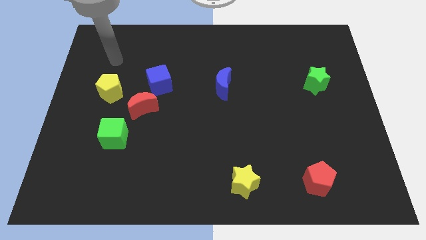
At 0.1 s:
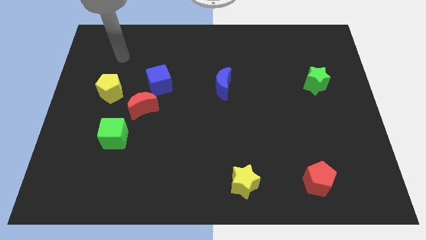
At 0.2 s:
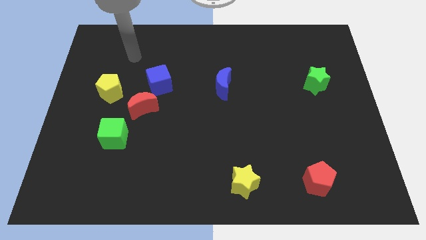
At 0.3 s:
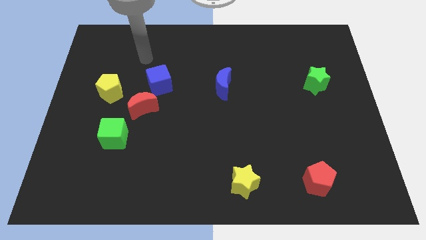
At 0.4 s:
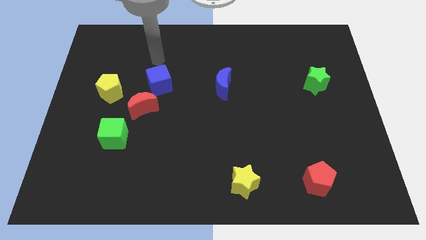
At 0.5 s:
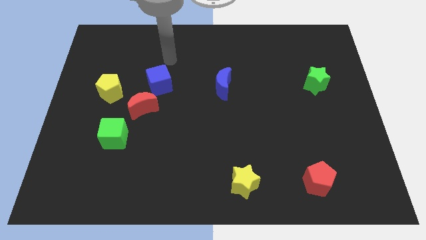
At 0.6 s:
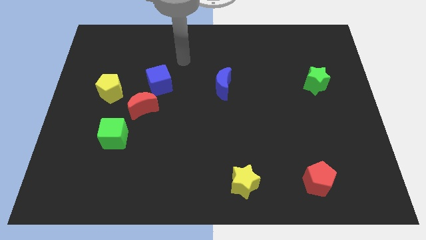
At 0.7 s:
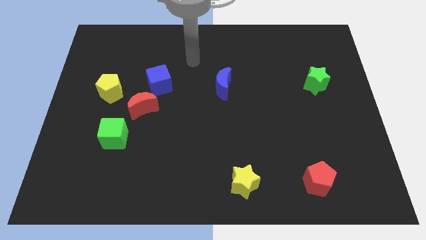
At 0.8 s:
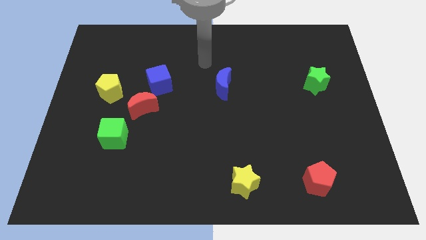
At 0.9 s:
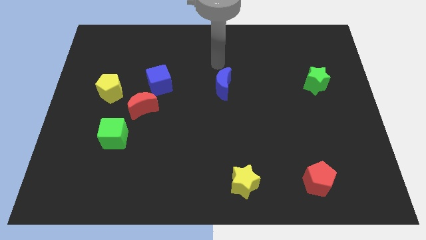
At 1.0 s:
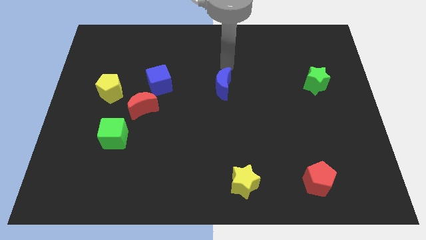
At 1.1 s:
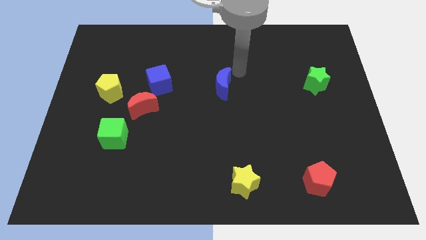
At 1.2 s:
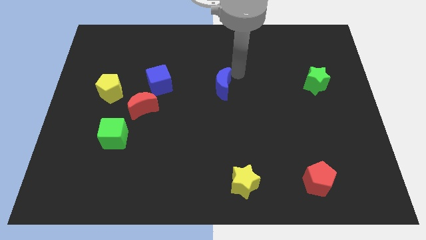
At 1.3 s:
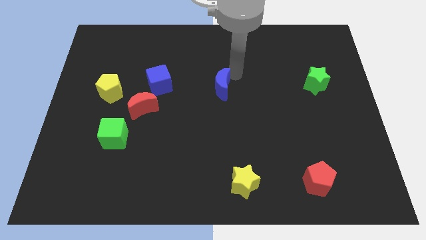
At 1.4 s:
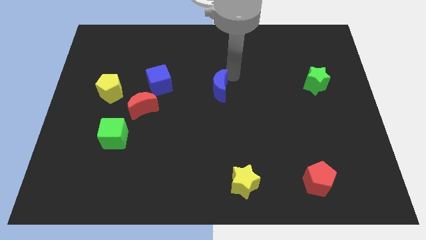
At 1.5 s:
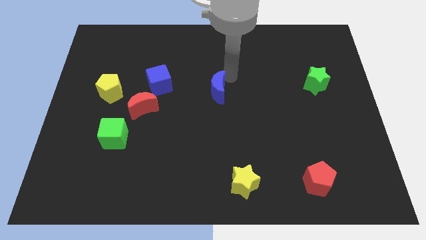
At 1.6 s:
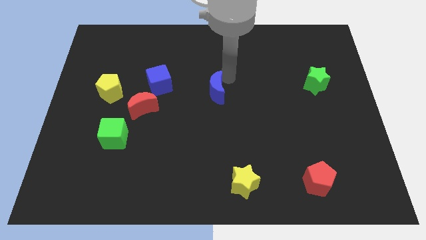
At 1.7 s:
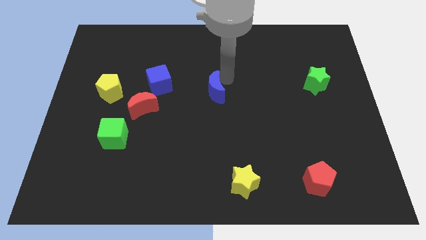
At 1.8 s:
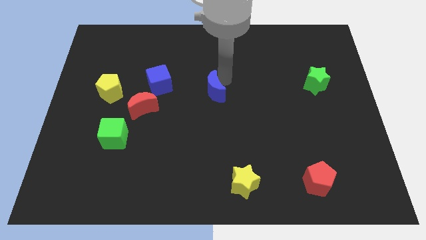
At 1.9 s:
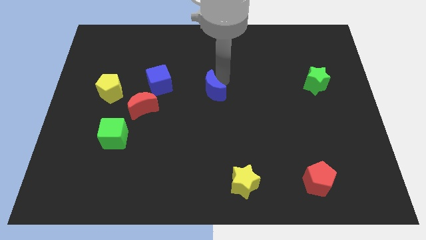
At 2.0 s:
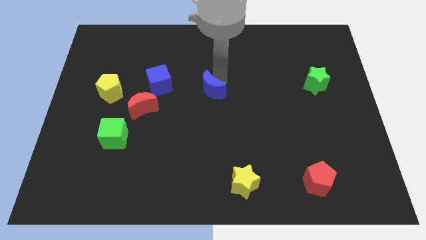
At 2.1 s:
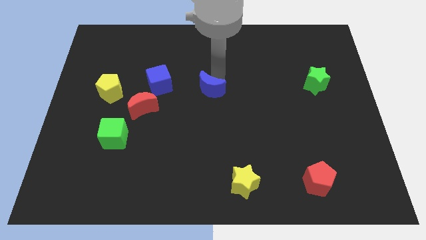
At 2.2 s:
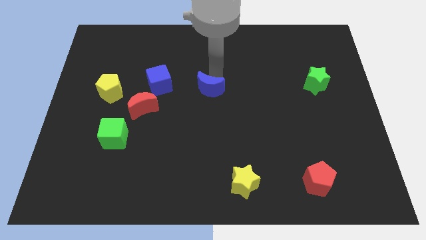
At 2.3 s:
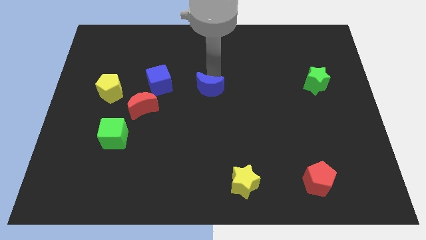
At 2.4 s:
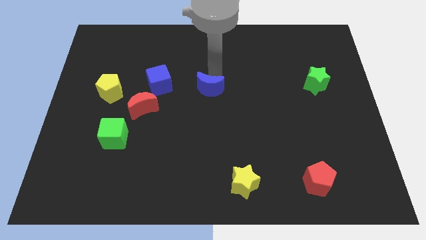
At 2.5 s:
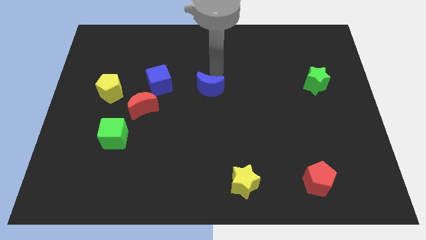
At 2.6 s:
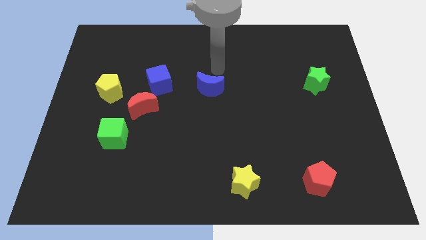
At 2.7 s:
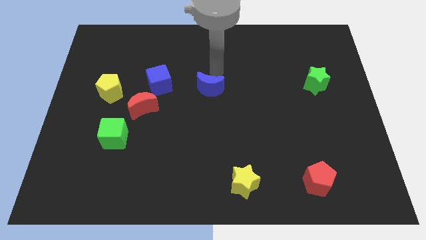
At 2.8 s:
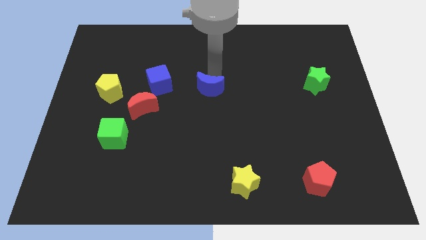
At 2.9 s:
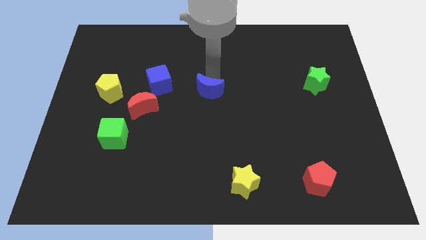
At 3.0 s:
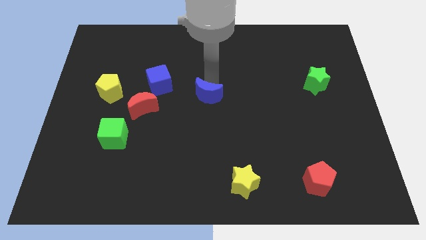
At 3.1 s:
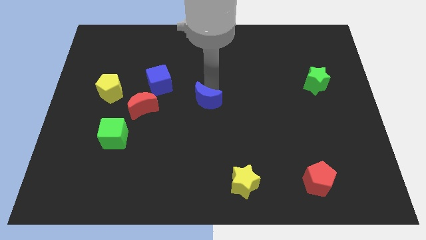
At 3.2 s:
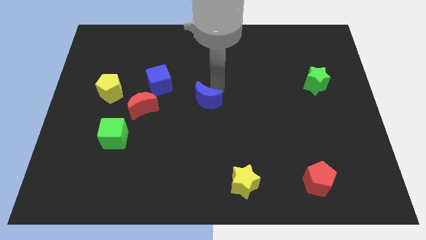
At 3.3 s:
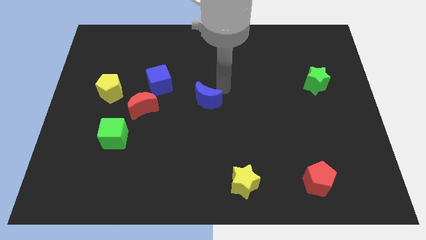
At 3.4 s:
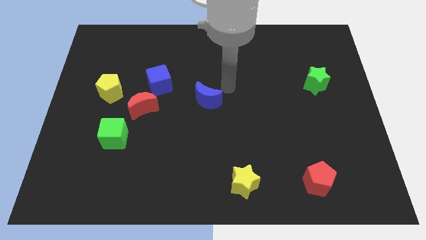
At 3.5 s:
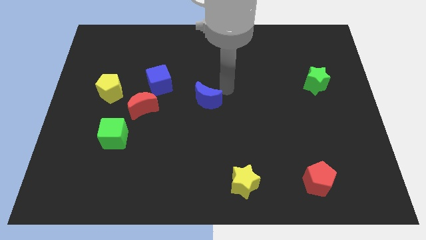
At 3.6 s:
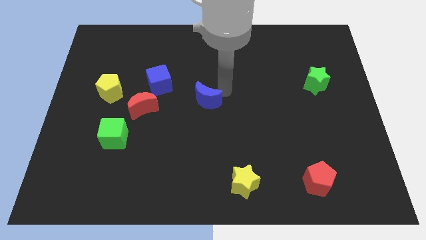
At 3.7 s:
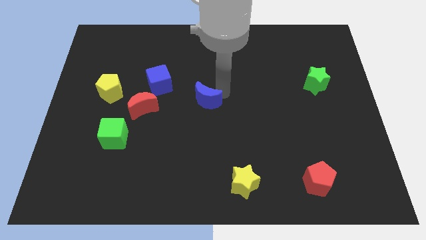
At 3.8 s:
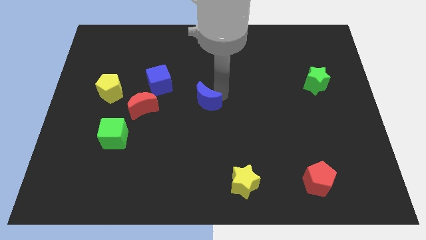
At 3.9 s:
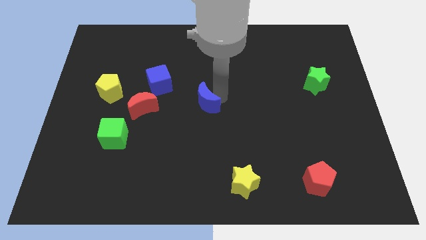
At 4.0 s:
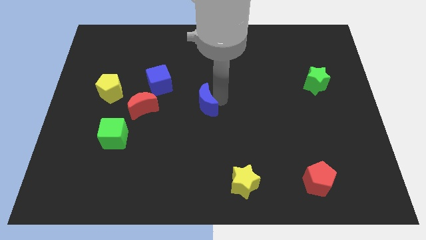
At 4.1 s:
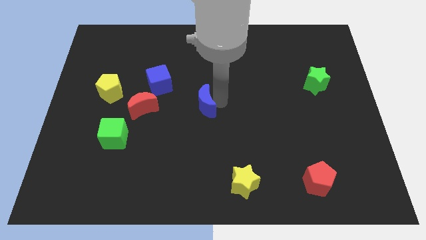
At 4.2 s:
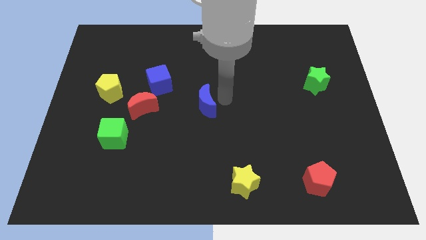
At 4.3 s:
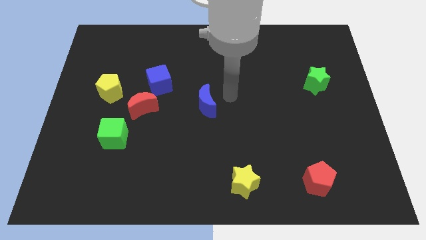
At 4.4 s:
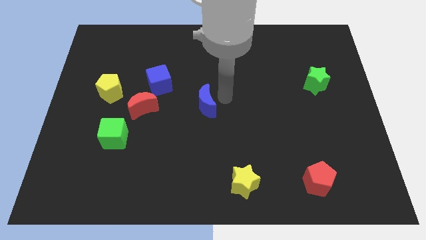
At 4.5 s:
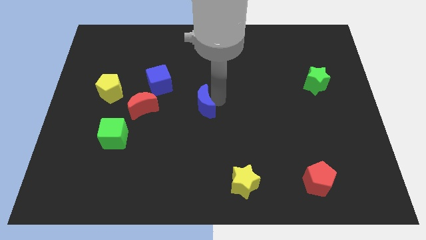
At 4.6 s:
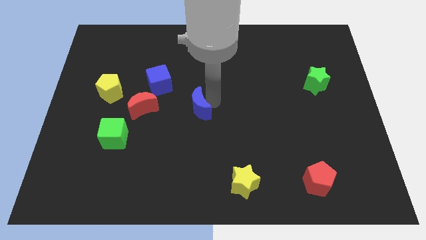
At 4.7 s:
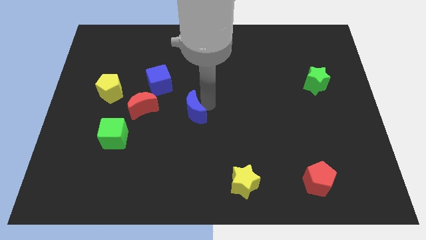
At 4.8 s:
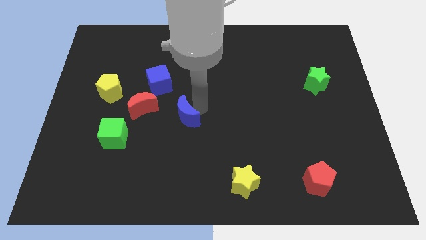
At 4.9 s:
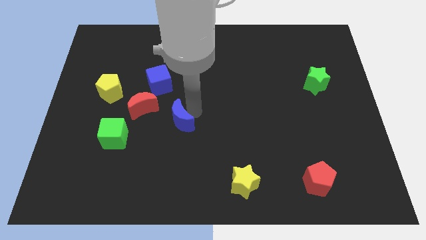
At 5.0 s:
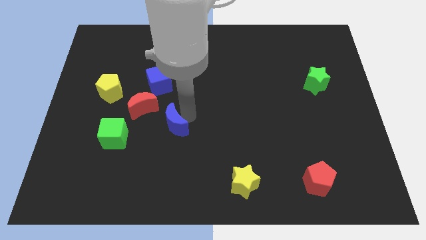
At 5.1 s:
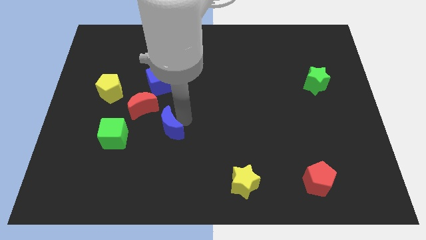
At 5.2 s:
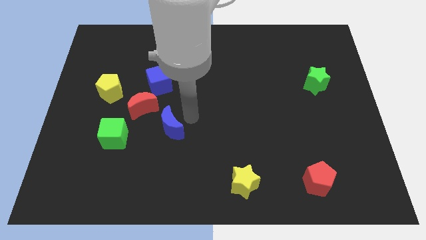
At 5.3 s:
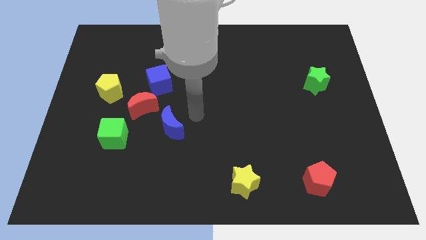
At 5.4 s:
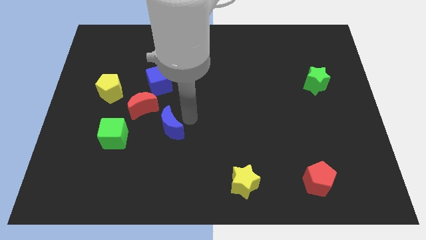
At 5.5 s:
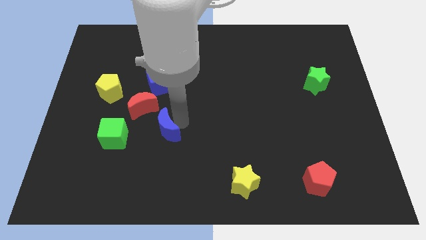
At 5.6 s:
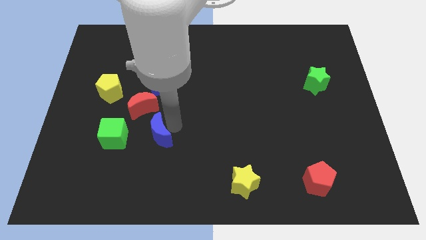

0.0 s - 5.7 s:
slide the blue moon diagonally down and to the left

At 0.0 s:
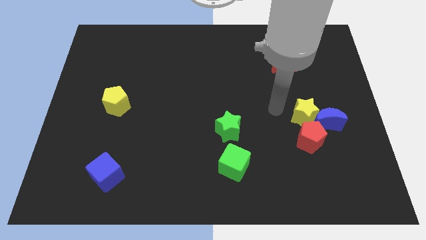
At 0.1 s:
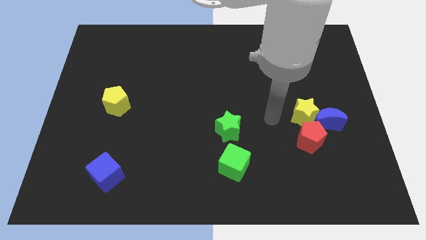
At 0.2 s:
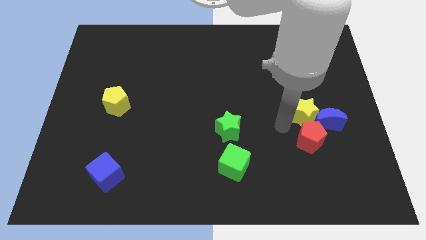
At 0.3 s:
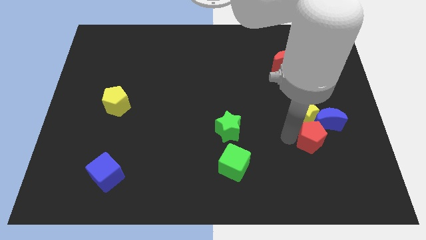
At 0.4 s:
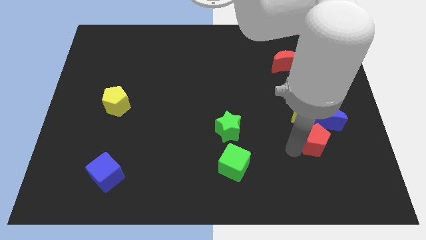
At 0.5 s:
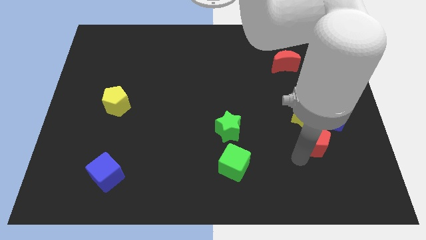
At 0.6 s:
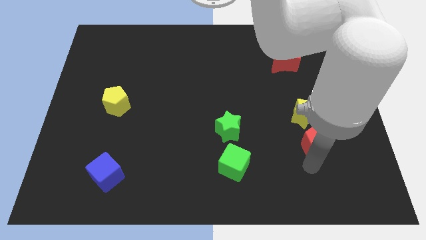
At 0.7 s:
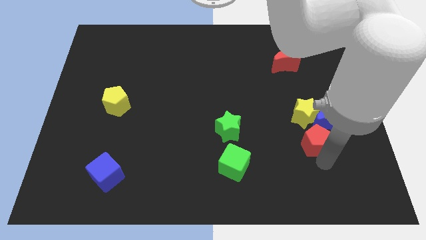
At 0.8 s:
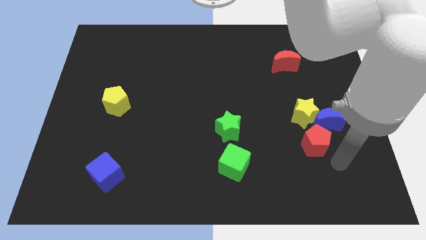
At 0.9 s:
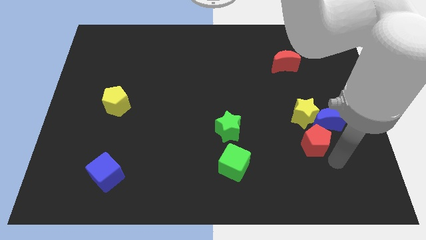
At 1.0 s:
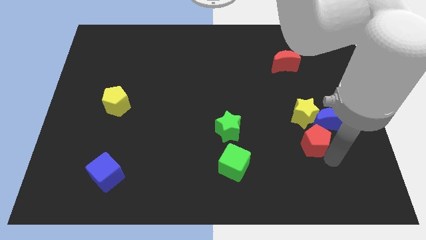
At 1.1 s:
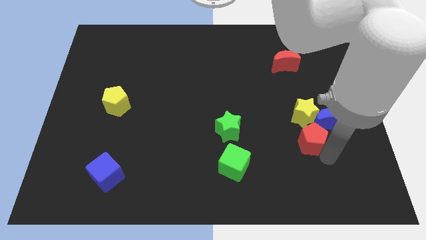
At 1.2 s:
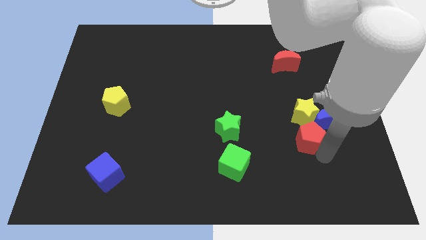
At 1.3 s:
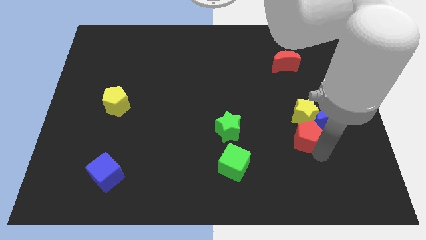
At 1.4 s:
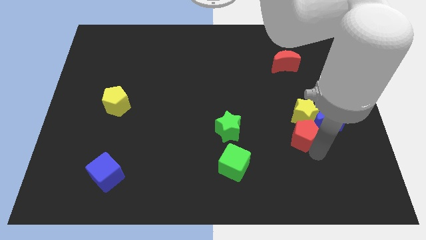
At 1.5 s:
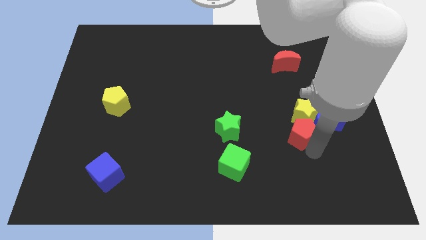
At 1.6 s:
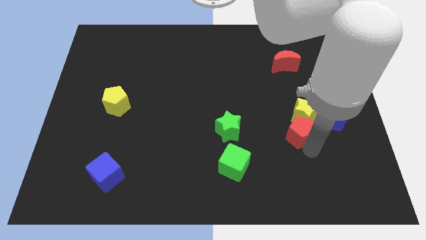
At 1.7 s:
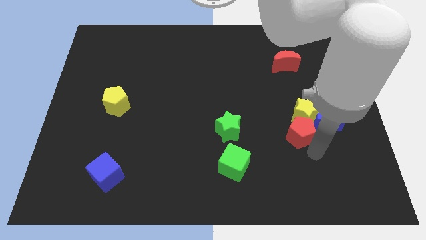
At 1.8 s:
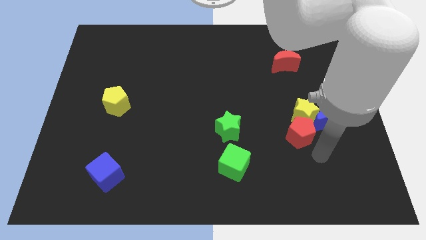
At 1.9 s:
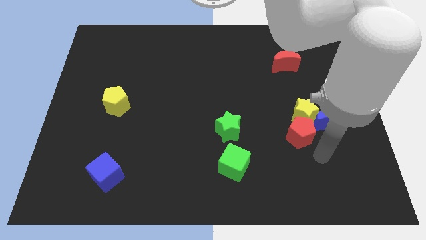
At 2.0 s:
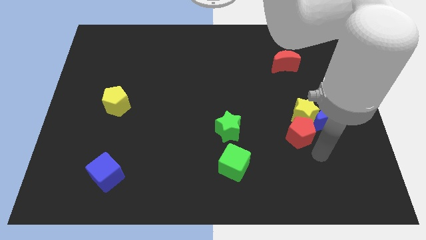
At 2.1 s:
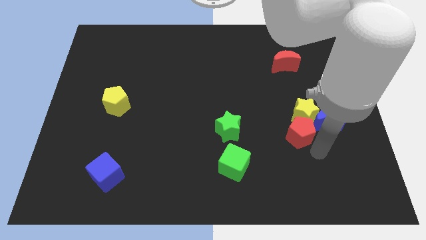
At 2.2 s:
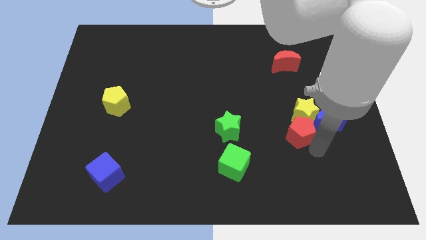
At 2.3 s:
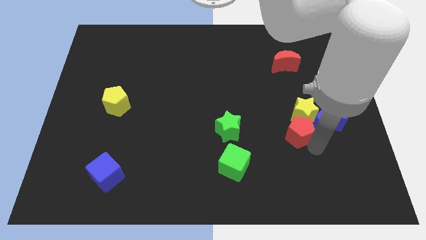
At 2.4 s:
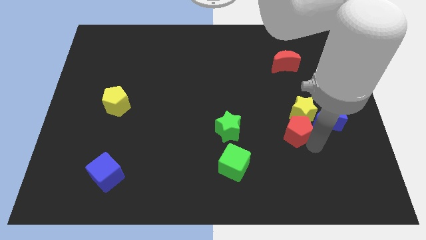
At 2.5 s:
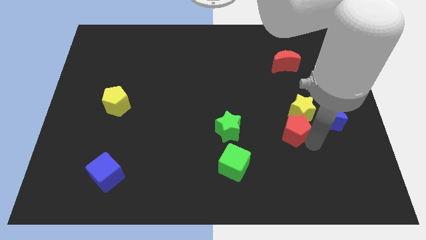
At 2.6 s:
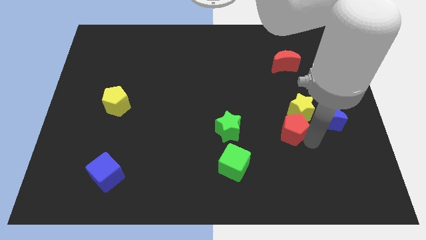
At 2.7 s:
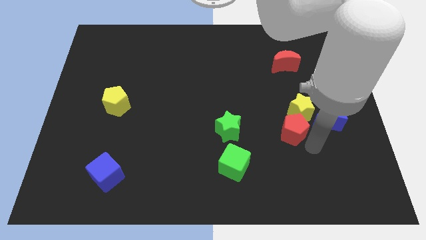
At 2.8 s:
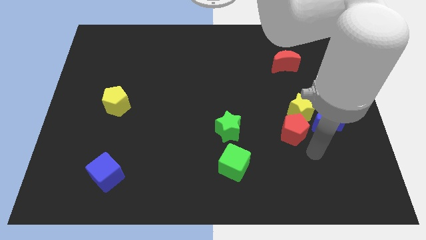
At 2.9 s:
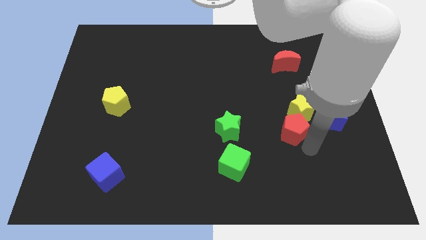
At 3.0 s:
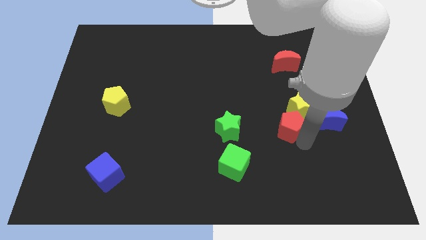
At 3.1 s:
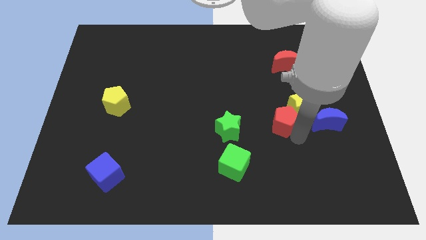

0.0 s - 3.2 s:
slightly slide the red pentagon upwards and to the left
